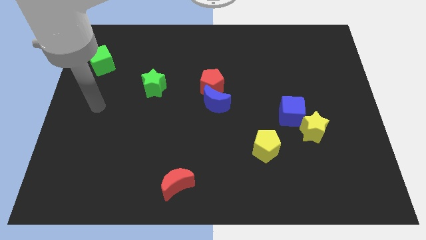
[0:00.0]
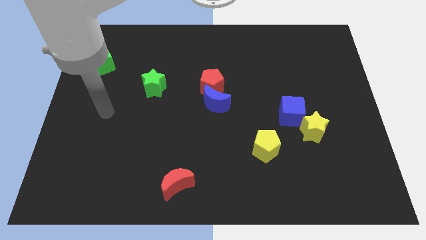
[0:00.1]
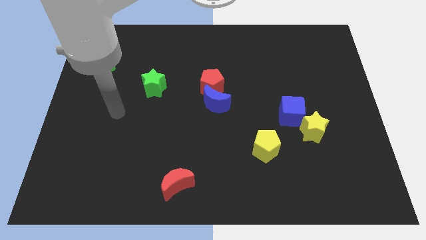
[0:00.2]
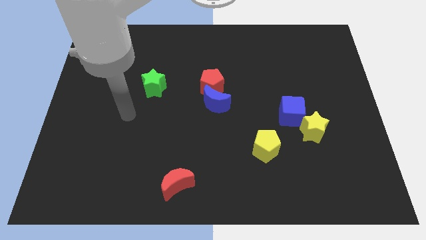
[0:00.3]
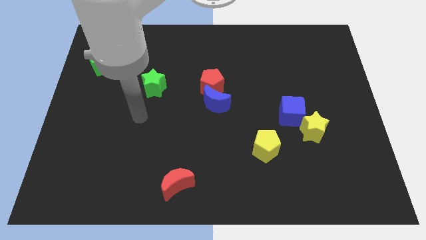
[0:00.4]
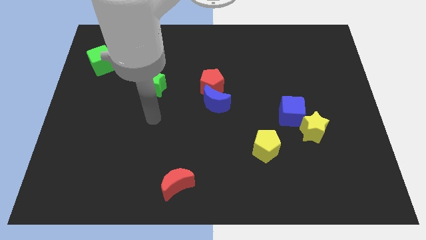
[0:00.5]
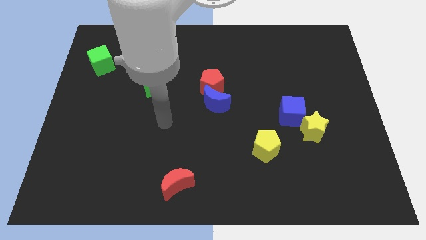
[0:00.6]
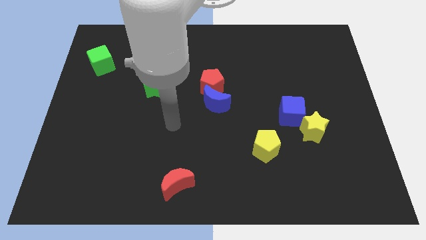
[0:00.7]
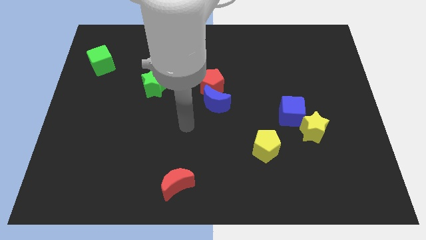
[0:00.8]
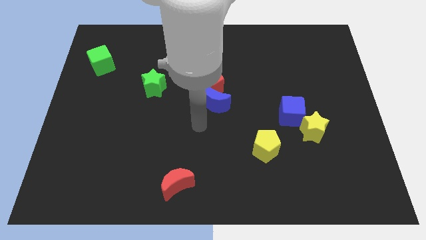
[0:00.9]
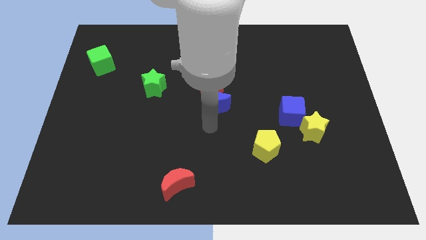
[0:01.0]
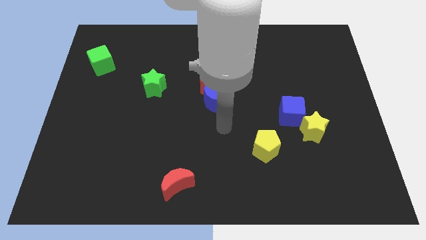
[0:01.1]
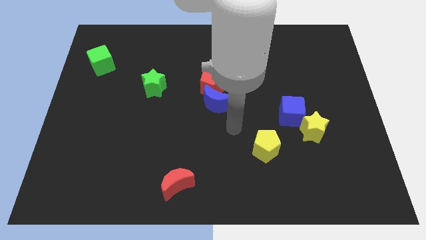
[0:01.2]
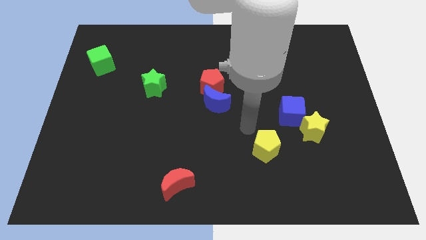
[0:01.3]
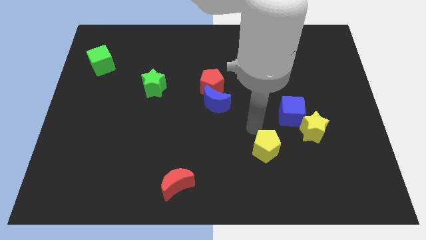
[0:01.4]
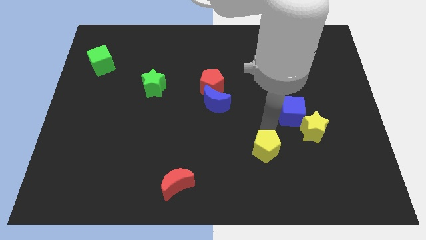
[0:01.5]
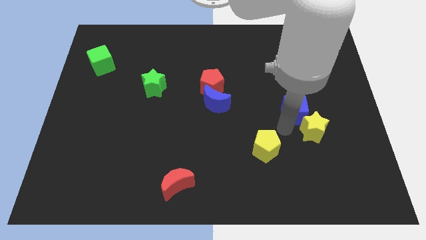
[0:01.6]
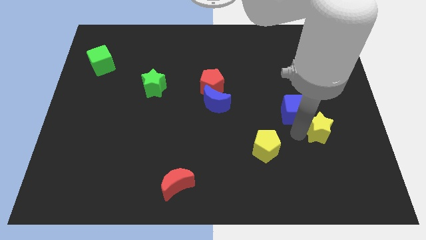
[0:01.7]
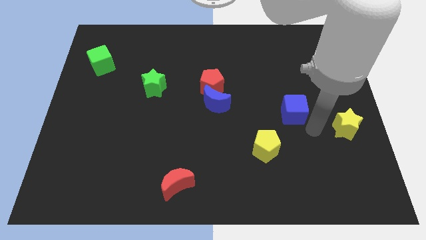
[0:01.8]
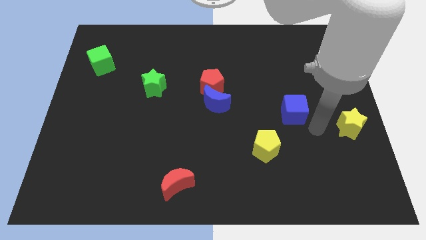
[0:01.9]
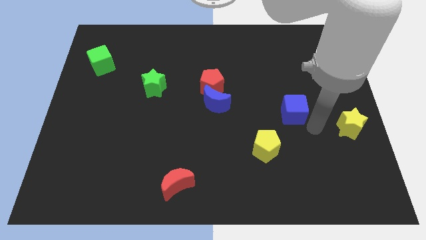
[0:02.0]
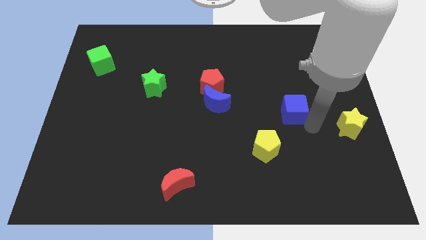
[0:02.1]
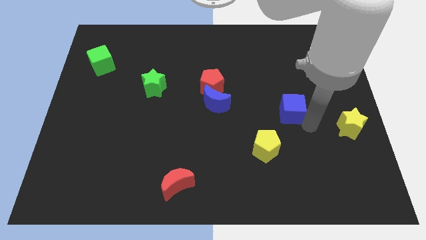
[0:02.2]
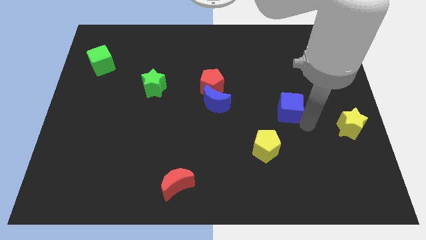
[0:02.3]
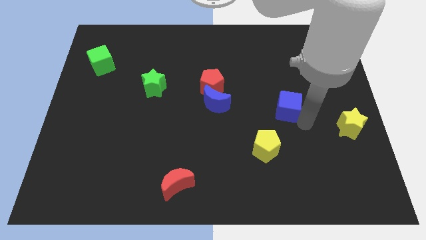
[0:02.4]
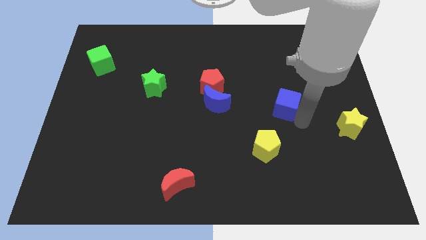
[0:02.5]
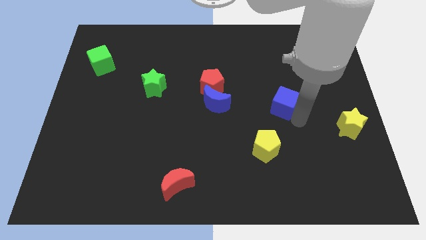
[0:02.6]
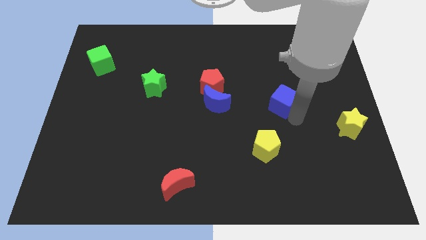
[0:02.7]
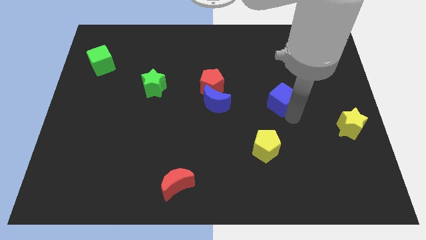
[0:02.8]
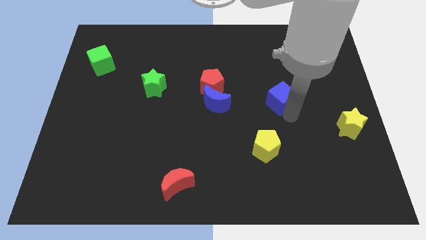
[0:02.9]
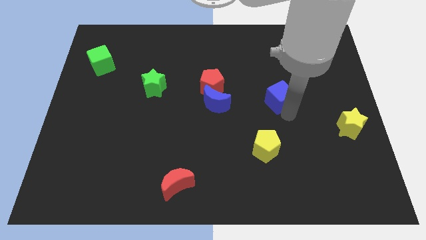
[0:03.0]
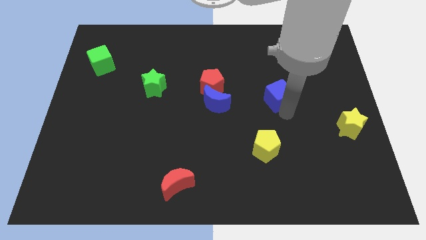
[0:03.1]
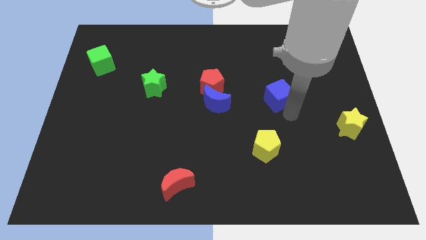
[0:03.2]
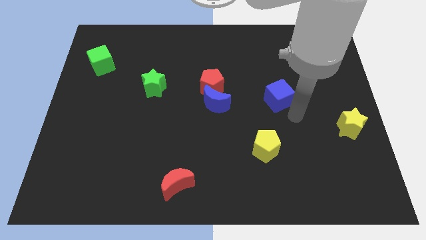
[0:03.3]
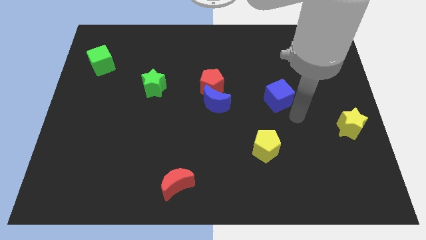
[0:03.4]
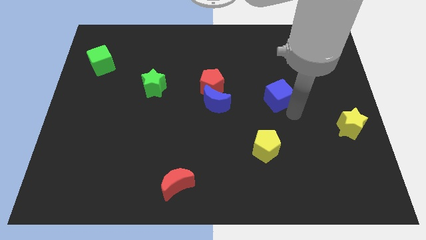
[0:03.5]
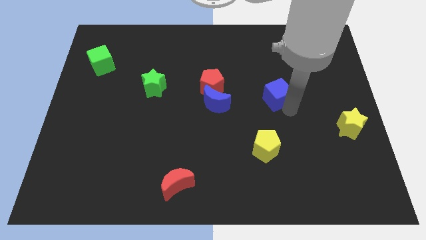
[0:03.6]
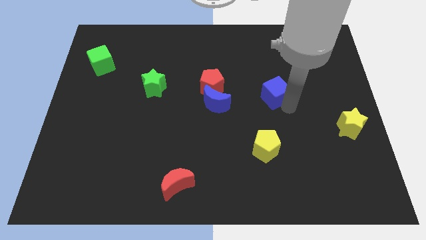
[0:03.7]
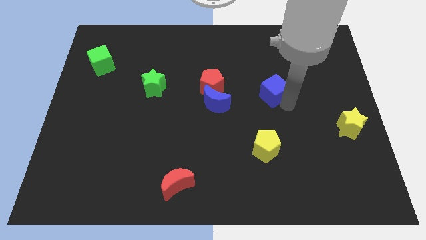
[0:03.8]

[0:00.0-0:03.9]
slightly slide the blue cube up and then to the left

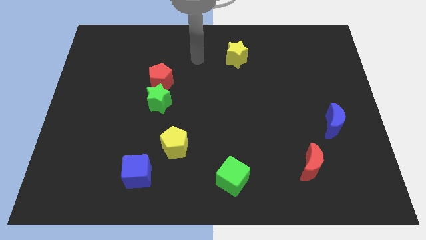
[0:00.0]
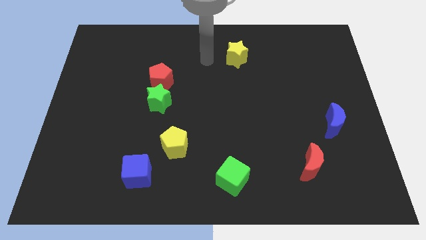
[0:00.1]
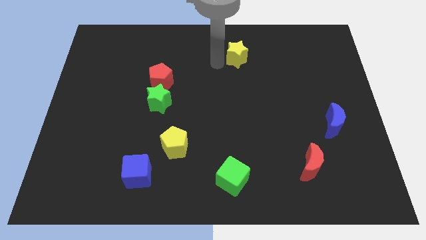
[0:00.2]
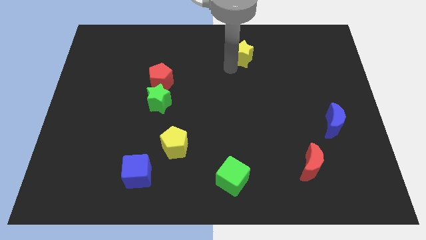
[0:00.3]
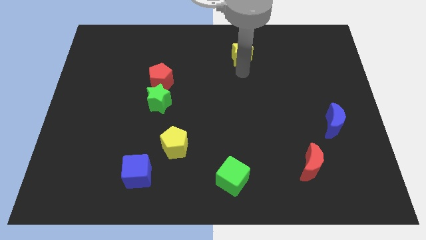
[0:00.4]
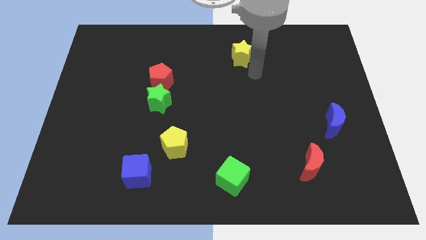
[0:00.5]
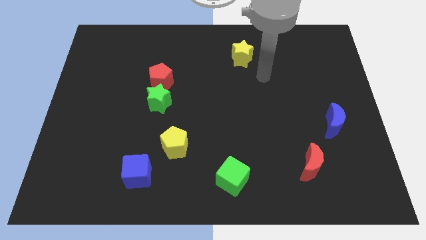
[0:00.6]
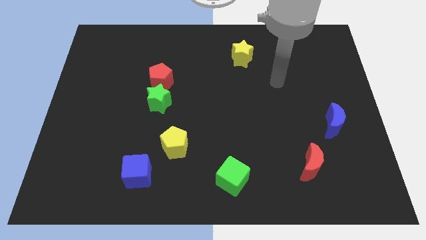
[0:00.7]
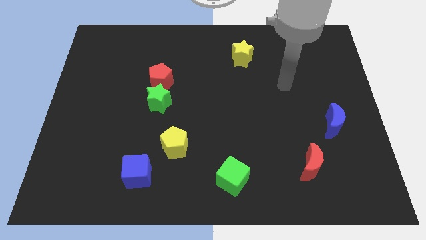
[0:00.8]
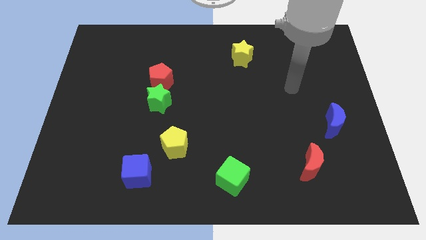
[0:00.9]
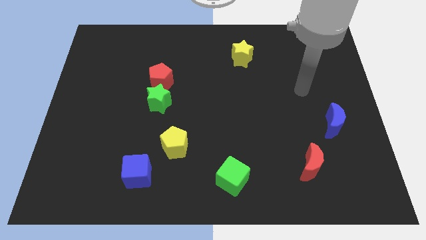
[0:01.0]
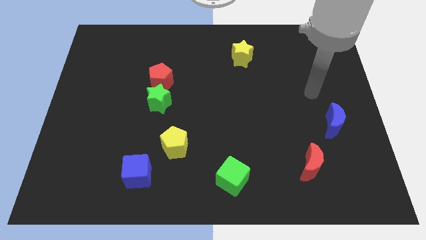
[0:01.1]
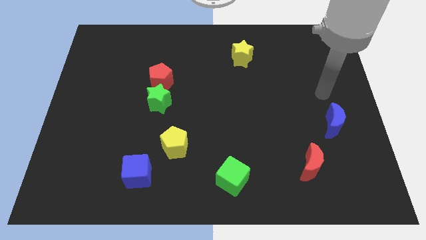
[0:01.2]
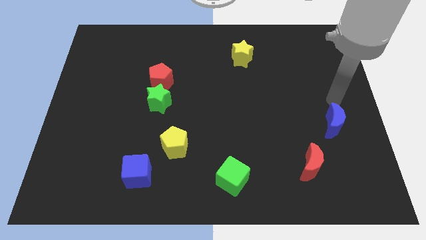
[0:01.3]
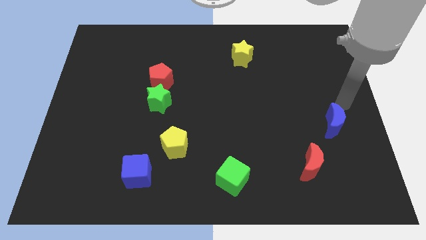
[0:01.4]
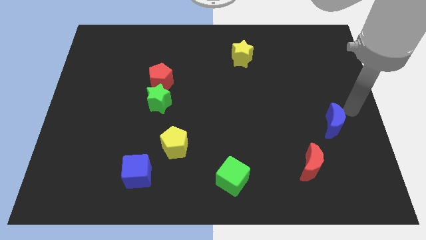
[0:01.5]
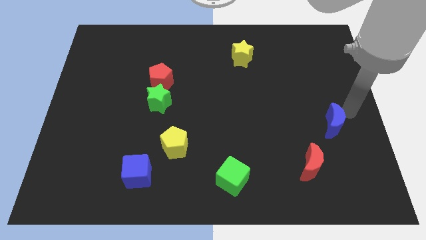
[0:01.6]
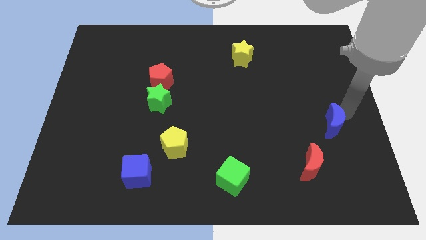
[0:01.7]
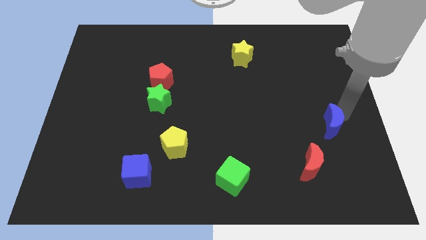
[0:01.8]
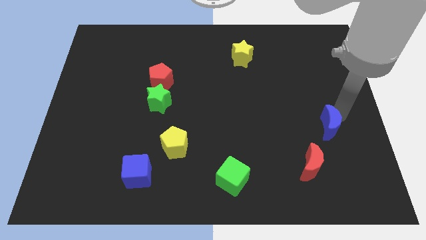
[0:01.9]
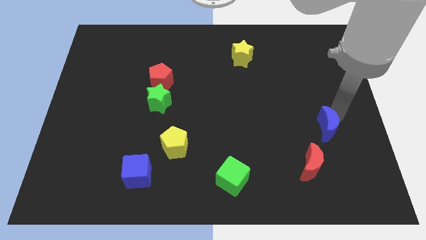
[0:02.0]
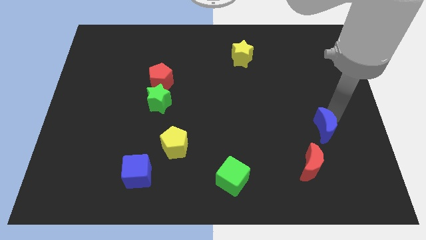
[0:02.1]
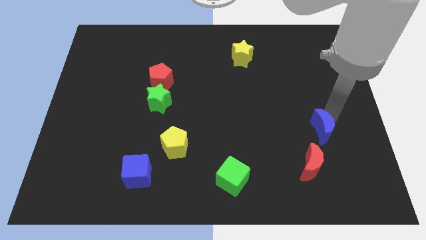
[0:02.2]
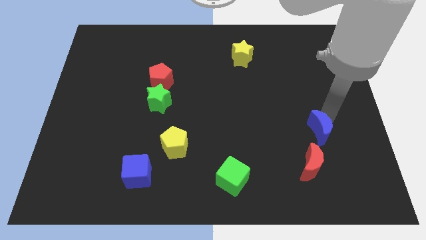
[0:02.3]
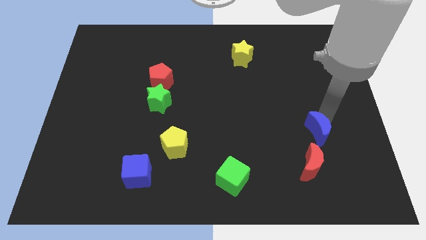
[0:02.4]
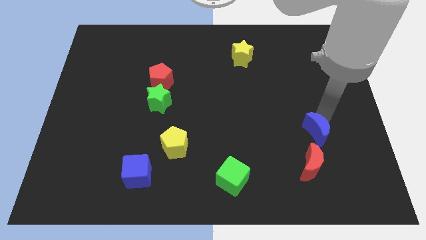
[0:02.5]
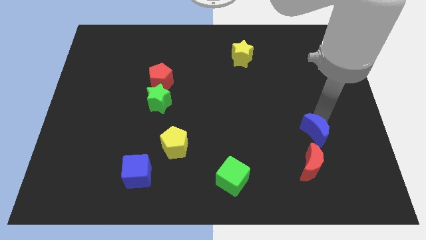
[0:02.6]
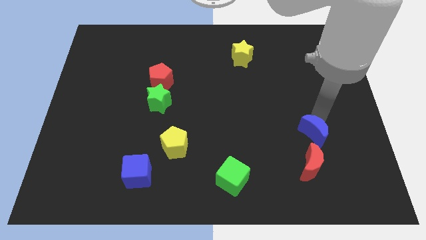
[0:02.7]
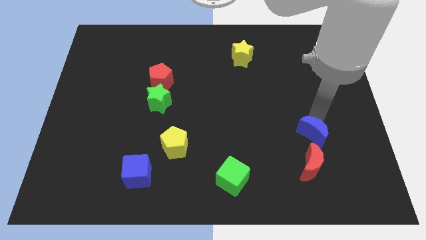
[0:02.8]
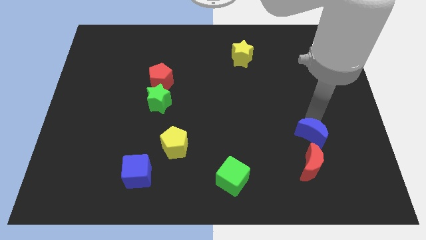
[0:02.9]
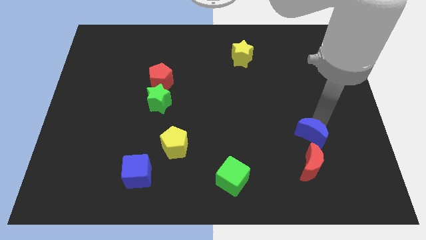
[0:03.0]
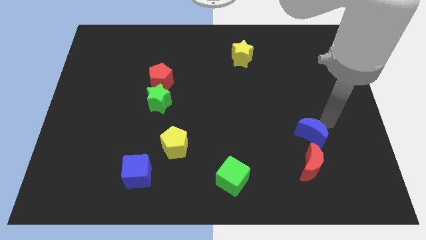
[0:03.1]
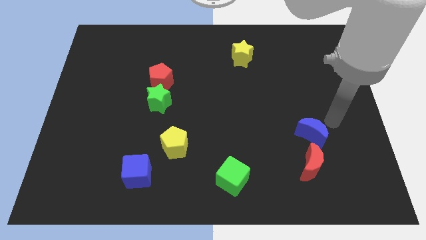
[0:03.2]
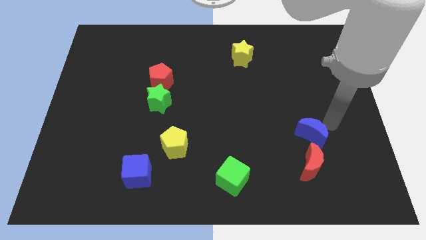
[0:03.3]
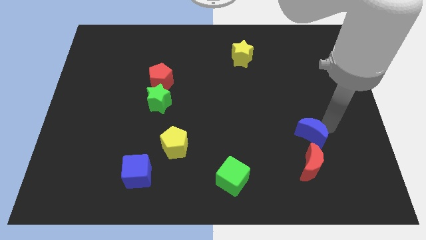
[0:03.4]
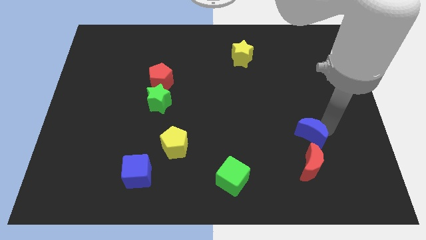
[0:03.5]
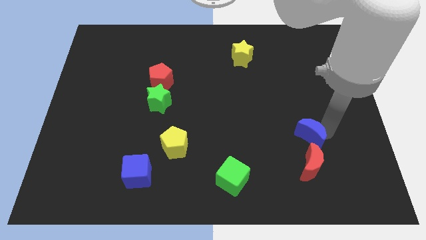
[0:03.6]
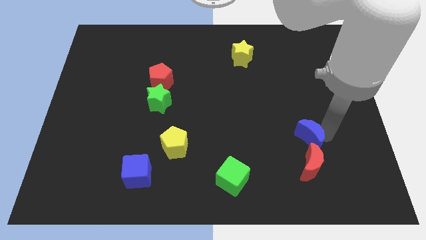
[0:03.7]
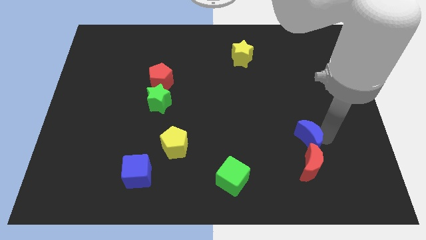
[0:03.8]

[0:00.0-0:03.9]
slide the blue moon diagonally downwards and to the left slightly
